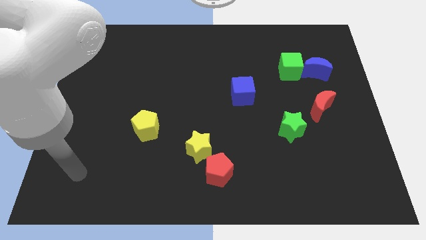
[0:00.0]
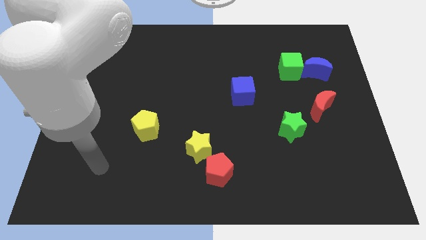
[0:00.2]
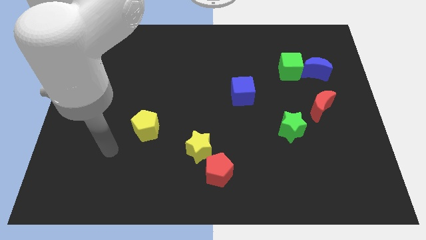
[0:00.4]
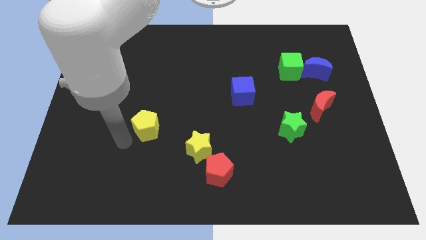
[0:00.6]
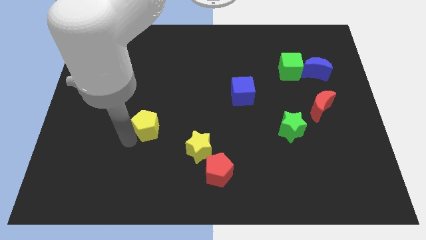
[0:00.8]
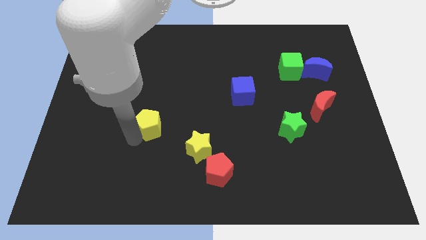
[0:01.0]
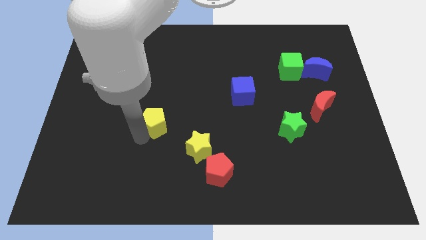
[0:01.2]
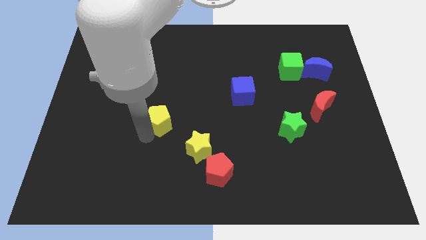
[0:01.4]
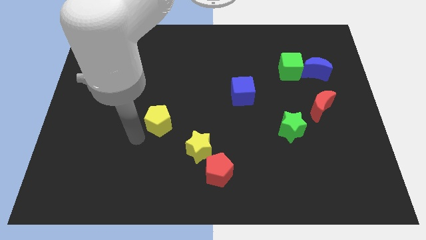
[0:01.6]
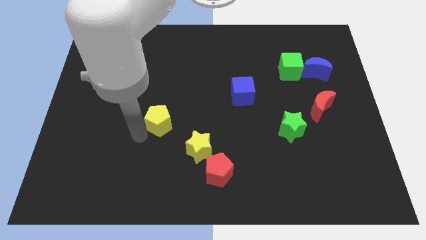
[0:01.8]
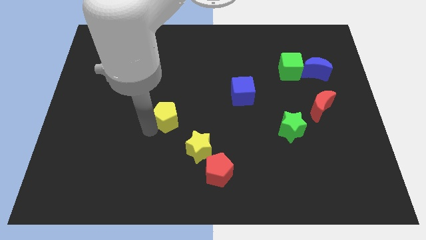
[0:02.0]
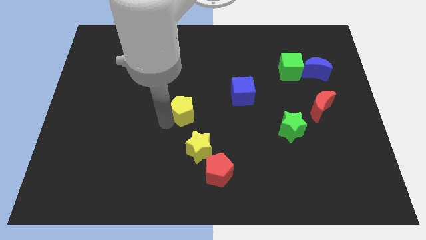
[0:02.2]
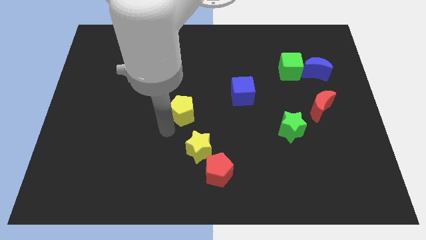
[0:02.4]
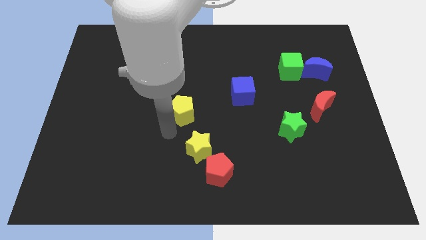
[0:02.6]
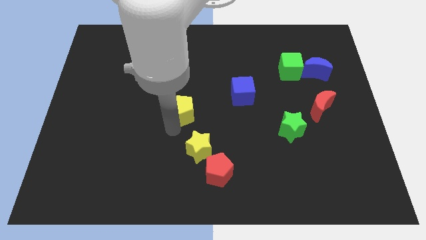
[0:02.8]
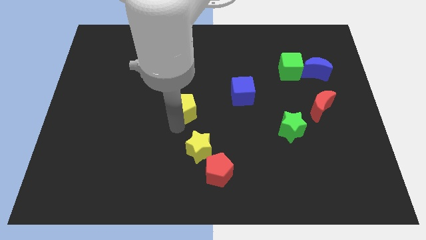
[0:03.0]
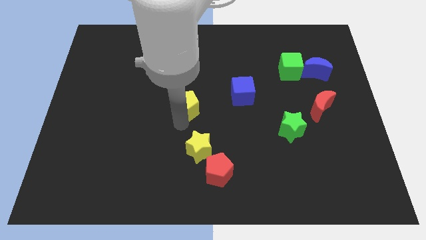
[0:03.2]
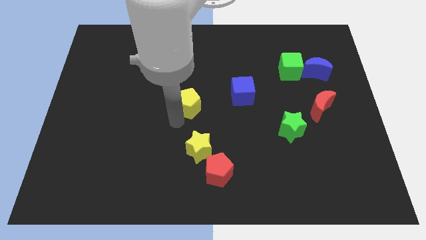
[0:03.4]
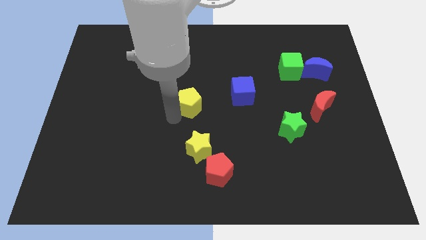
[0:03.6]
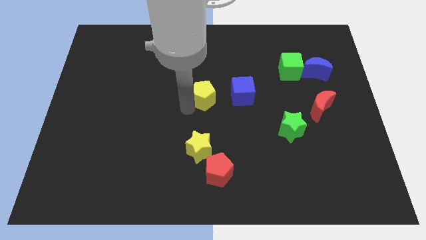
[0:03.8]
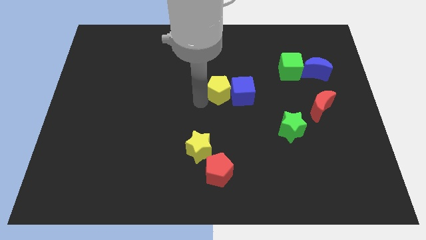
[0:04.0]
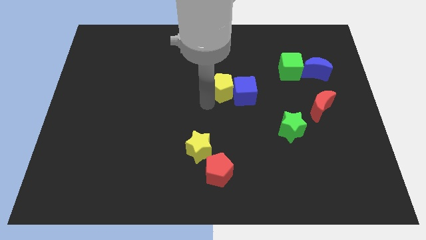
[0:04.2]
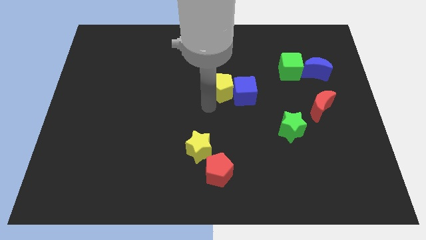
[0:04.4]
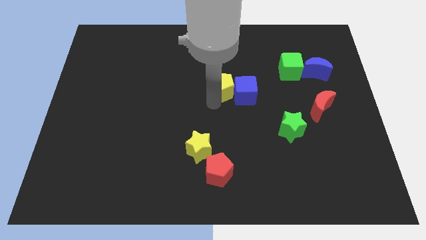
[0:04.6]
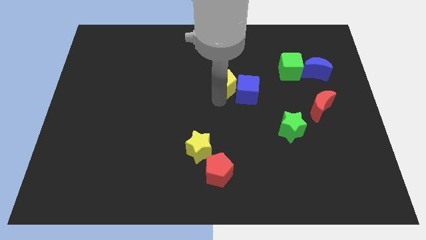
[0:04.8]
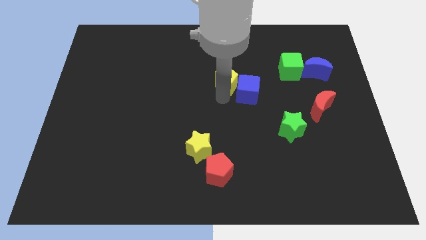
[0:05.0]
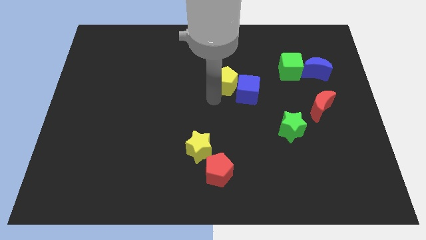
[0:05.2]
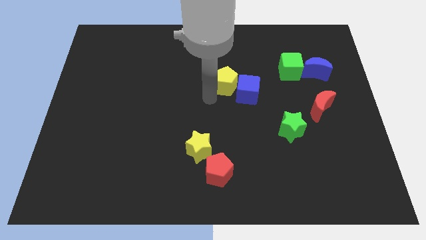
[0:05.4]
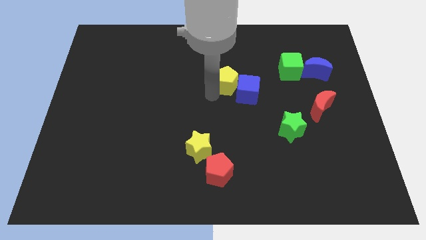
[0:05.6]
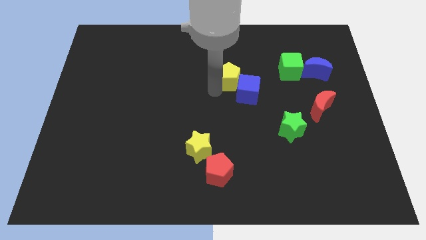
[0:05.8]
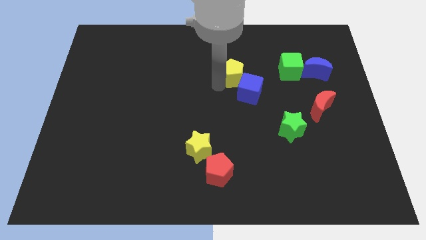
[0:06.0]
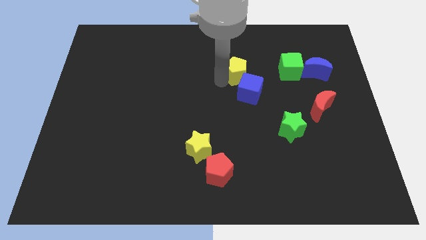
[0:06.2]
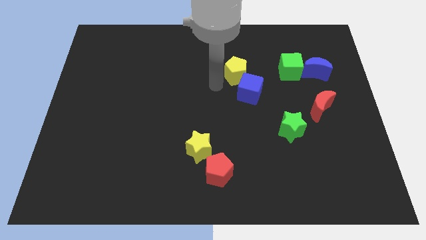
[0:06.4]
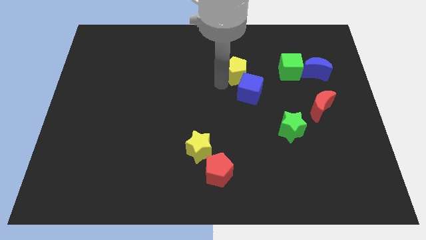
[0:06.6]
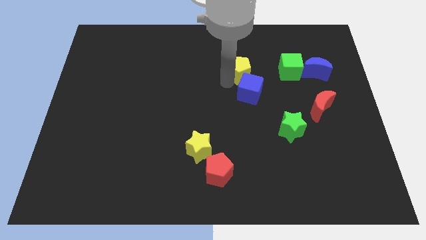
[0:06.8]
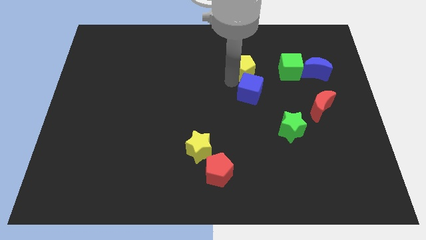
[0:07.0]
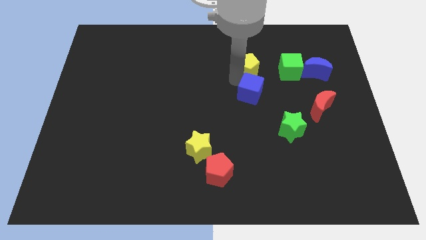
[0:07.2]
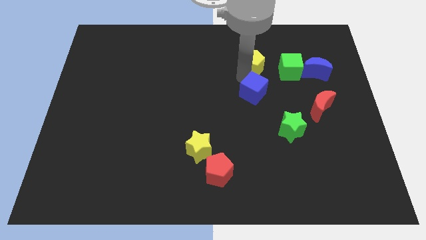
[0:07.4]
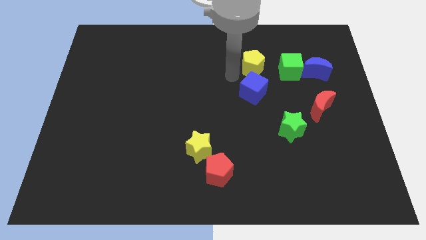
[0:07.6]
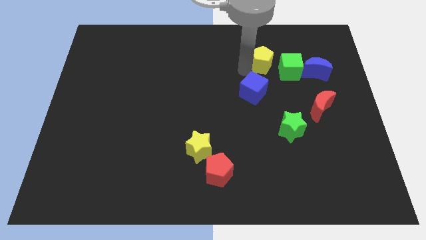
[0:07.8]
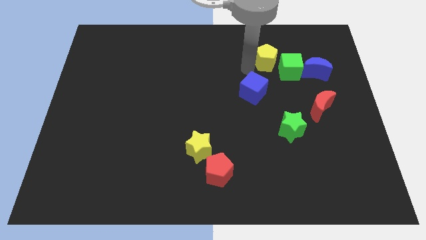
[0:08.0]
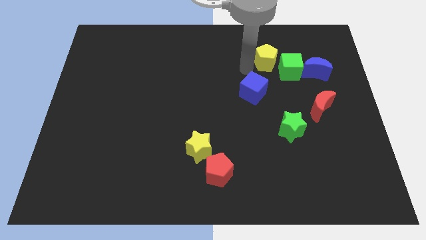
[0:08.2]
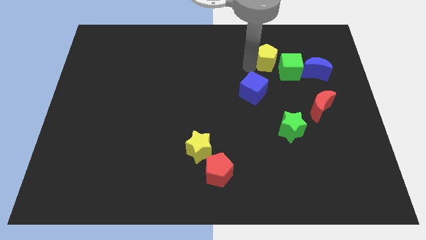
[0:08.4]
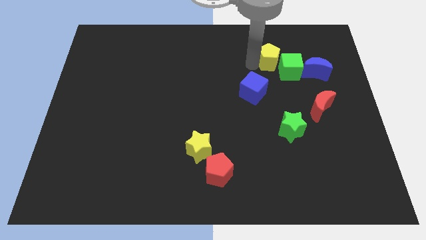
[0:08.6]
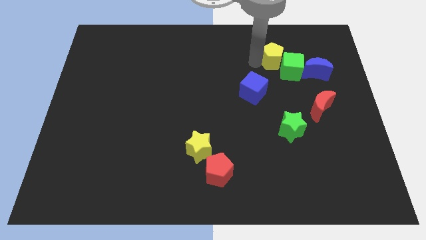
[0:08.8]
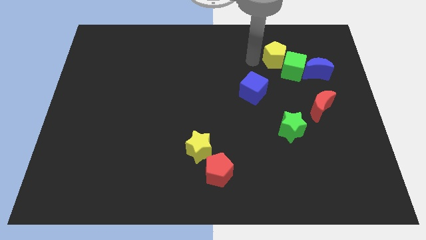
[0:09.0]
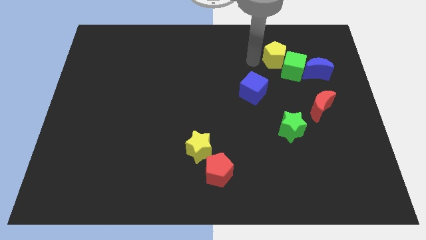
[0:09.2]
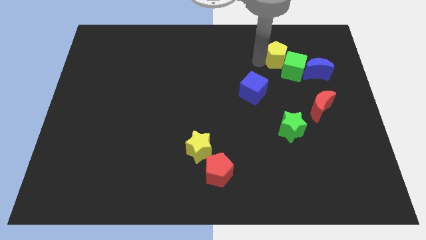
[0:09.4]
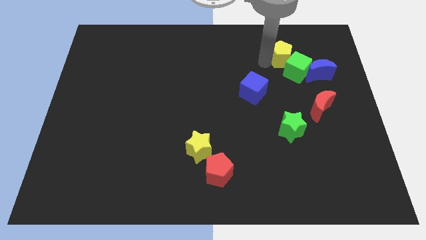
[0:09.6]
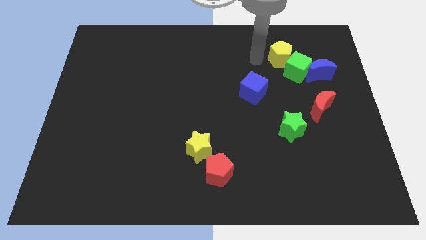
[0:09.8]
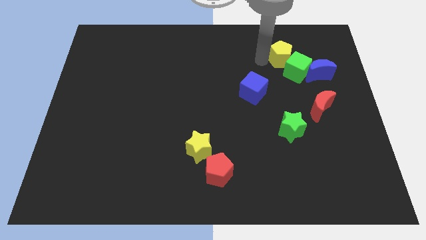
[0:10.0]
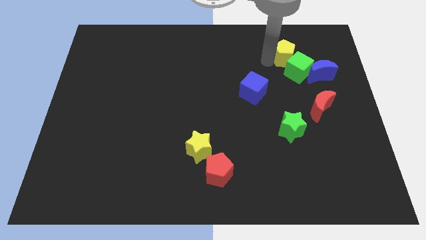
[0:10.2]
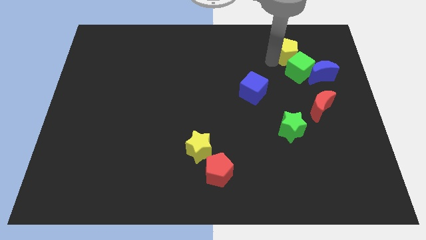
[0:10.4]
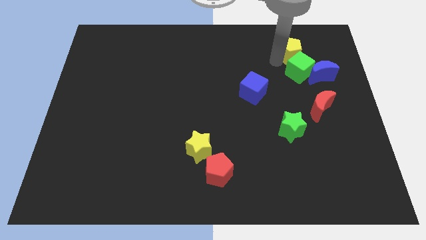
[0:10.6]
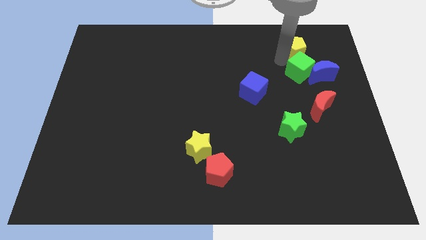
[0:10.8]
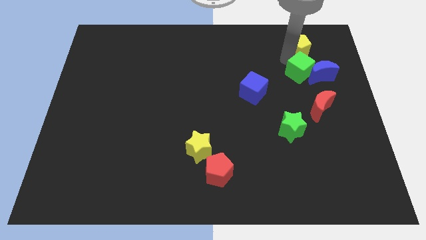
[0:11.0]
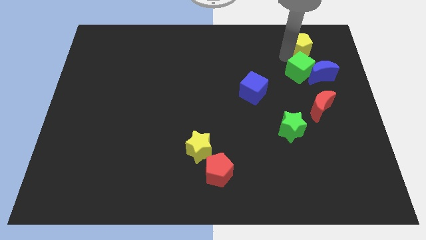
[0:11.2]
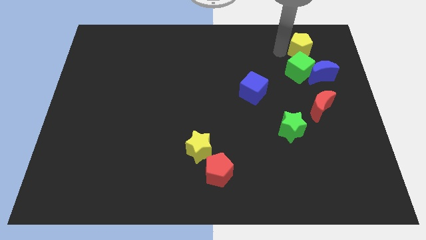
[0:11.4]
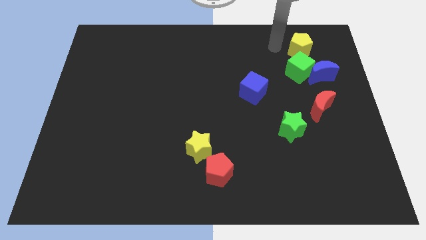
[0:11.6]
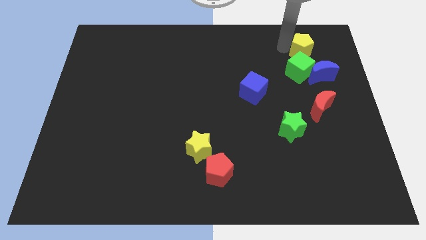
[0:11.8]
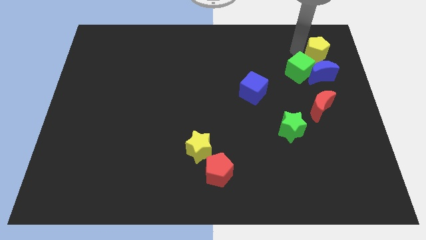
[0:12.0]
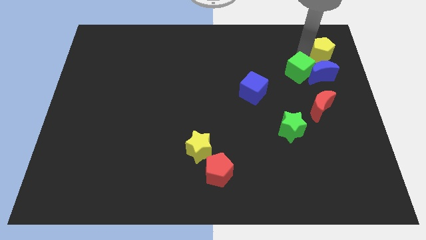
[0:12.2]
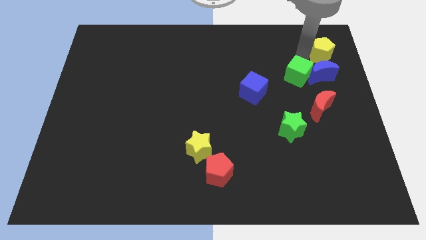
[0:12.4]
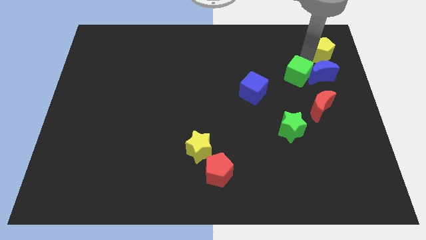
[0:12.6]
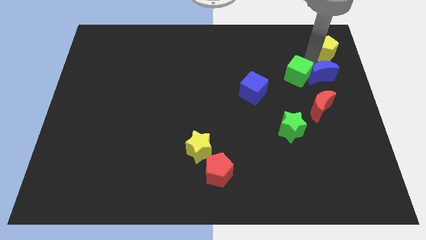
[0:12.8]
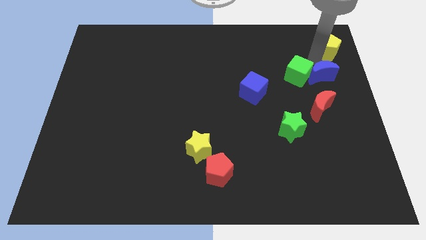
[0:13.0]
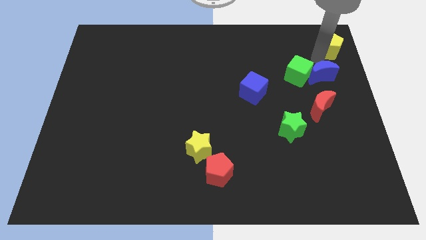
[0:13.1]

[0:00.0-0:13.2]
slide the yellow pentagon to the top right of the board

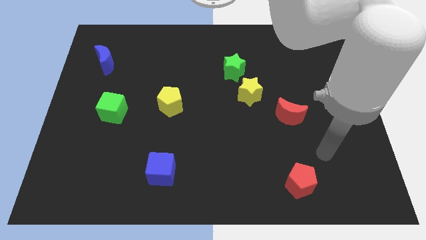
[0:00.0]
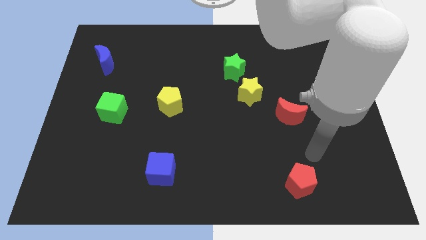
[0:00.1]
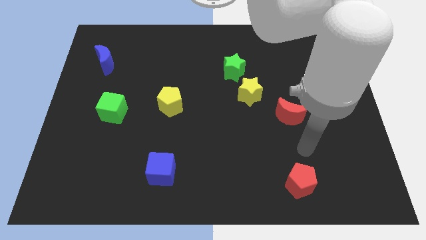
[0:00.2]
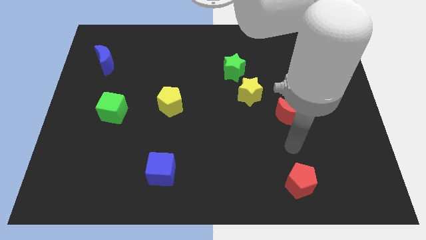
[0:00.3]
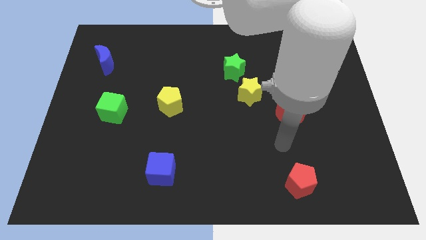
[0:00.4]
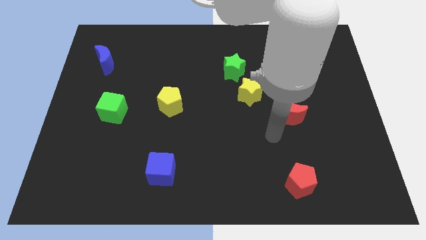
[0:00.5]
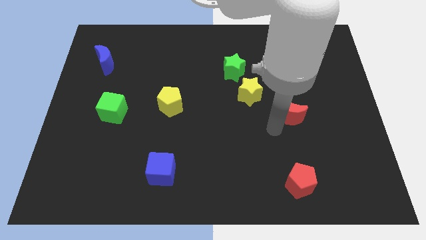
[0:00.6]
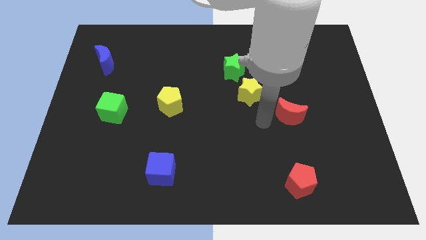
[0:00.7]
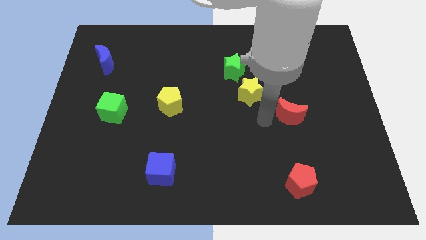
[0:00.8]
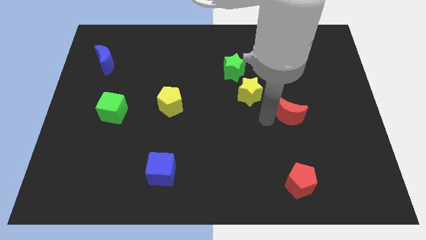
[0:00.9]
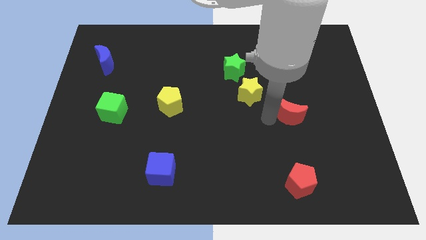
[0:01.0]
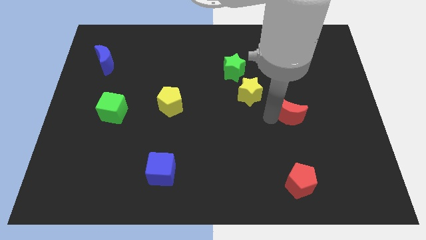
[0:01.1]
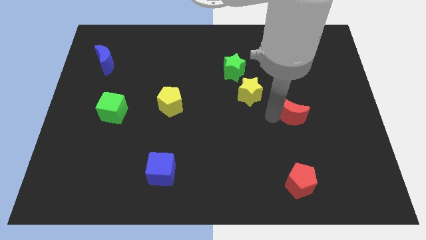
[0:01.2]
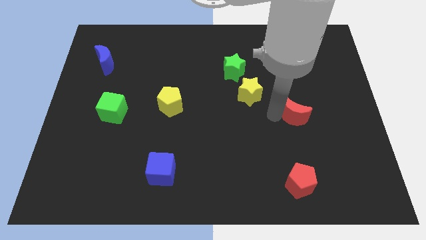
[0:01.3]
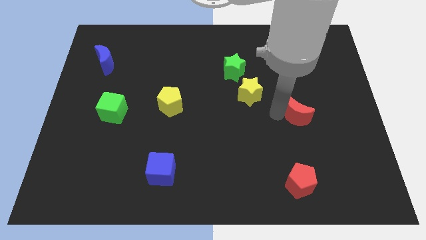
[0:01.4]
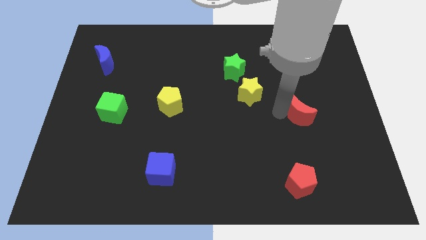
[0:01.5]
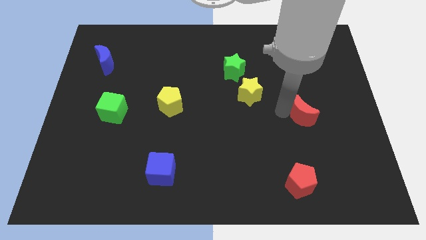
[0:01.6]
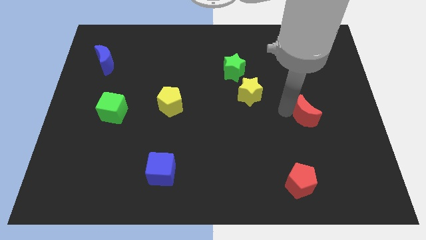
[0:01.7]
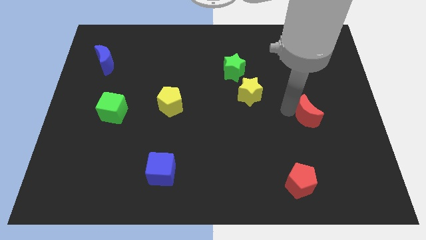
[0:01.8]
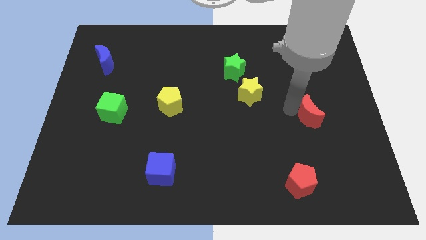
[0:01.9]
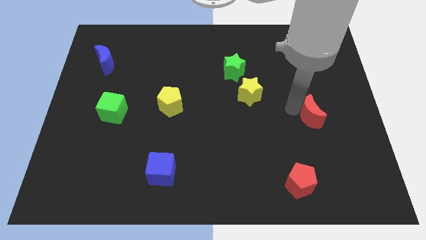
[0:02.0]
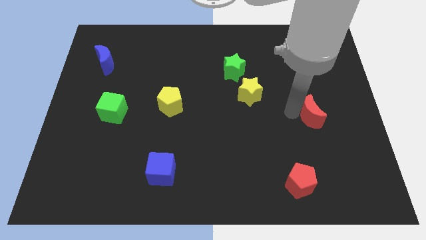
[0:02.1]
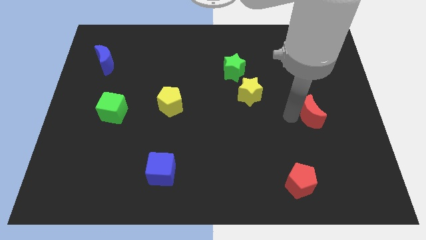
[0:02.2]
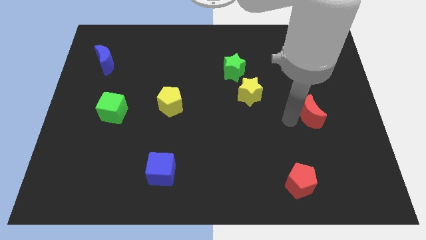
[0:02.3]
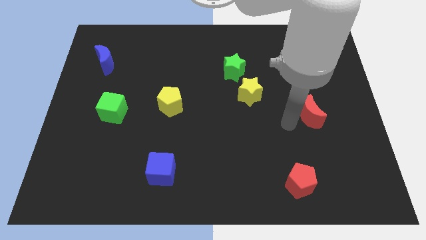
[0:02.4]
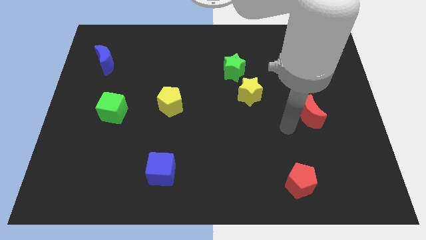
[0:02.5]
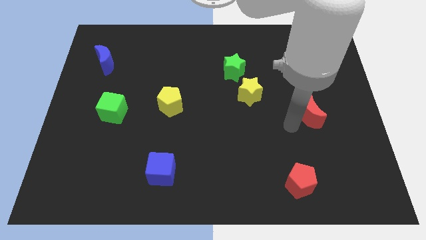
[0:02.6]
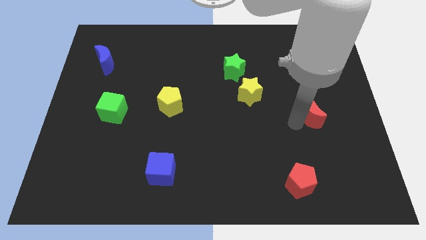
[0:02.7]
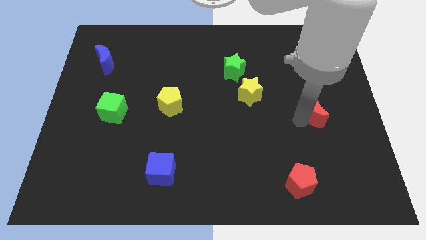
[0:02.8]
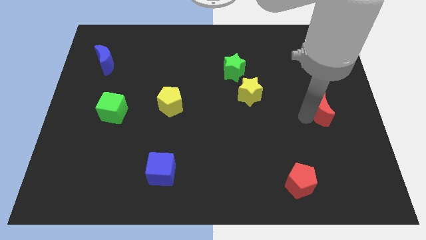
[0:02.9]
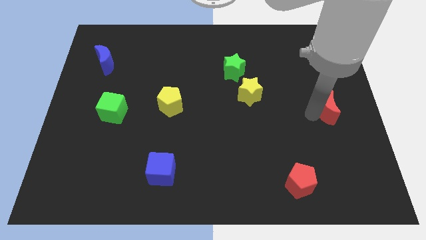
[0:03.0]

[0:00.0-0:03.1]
move the red moon to the center right
